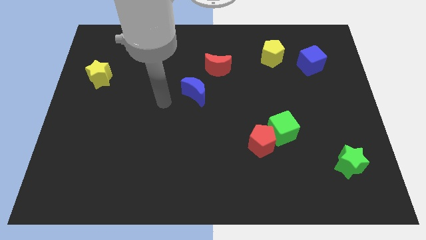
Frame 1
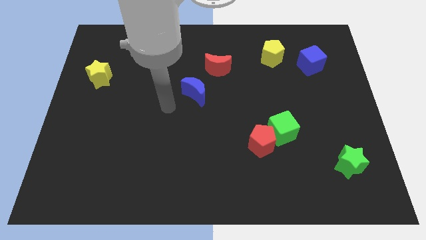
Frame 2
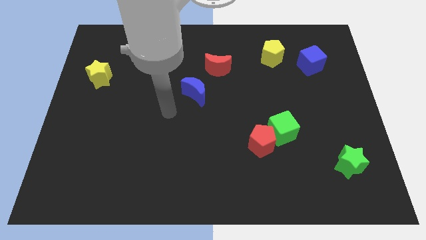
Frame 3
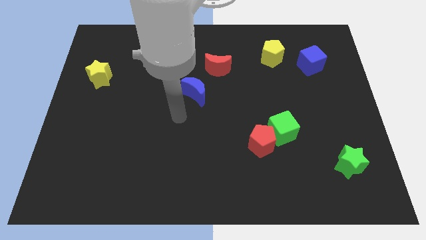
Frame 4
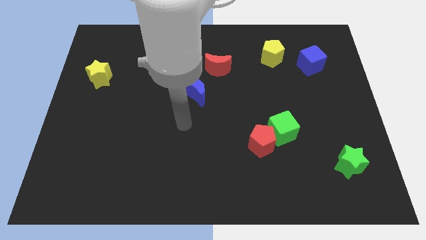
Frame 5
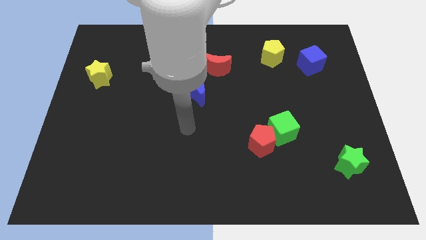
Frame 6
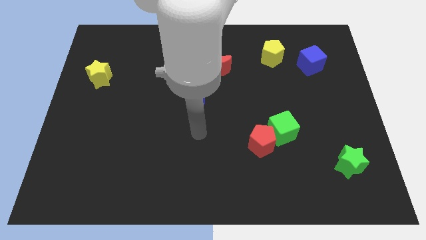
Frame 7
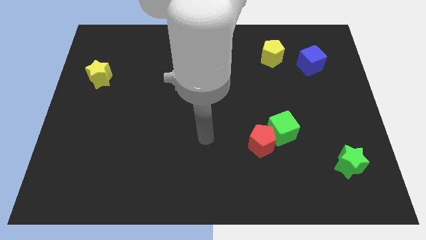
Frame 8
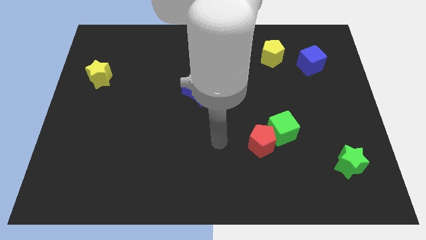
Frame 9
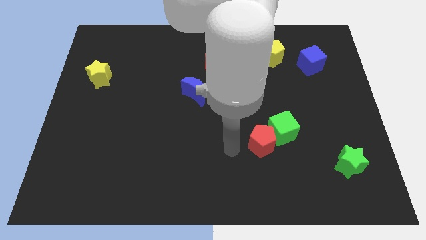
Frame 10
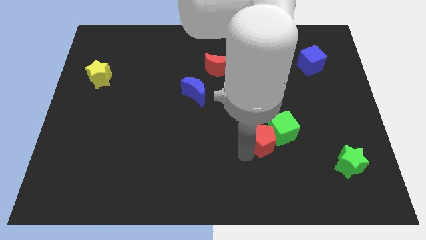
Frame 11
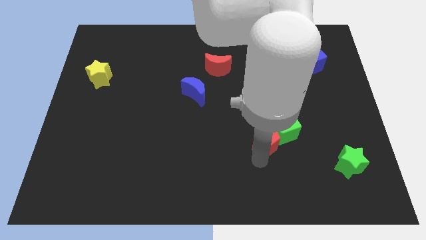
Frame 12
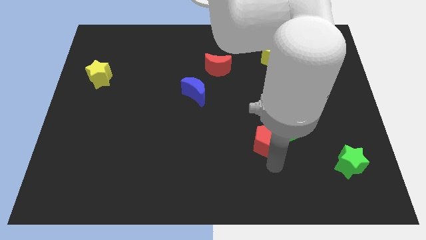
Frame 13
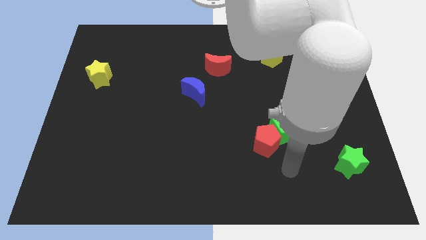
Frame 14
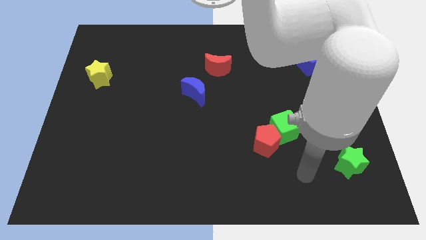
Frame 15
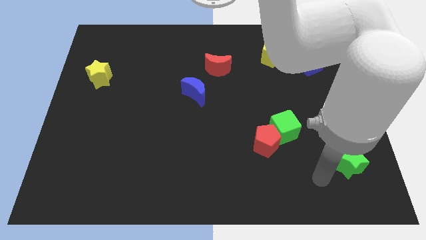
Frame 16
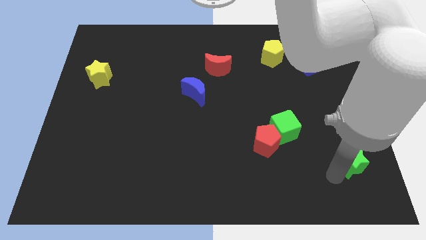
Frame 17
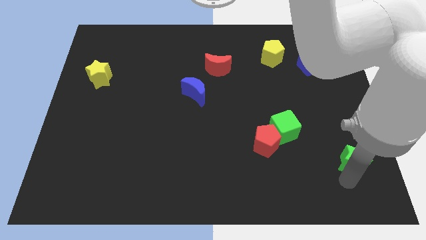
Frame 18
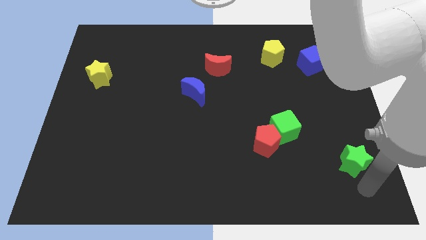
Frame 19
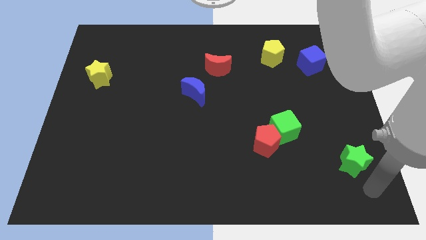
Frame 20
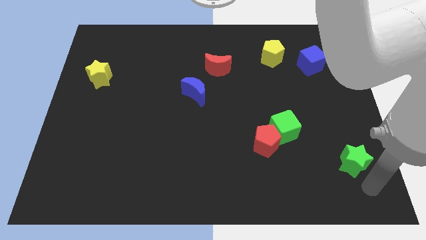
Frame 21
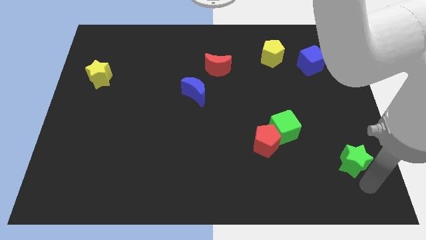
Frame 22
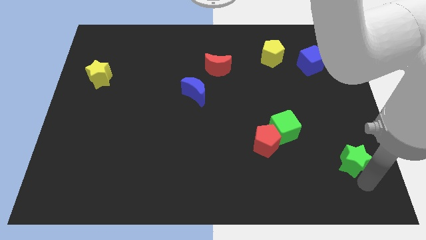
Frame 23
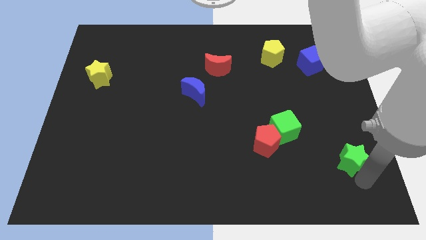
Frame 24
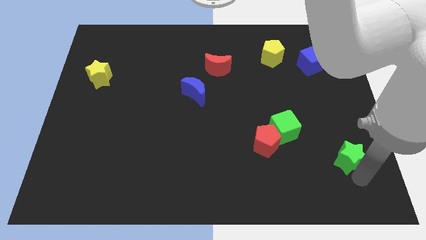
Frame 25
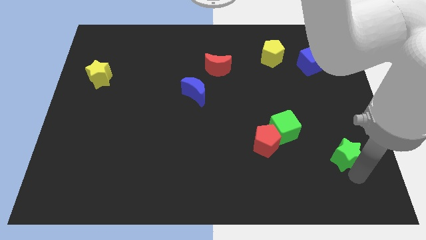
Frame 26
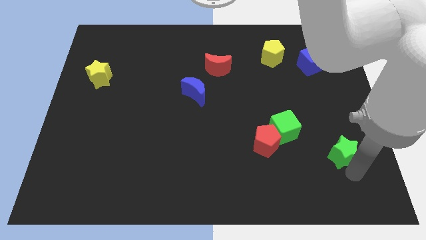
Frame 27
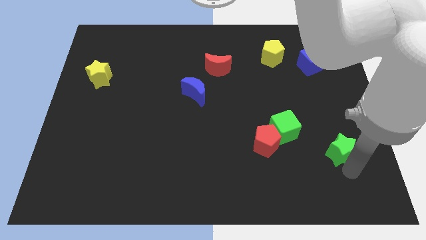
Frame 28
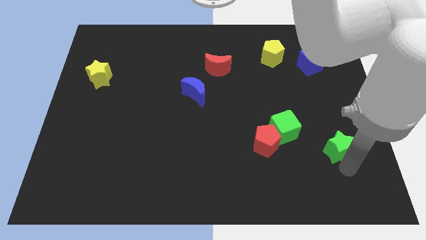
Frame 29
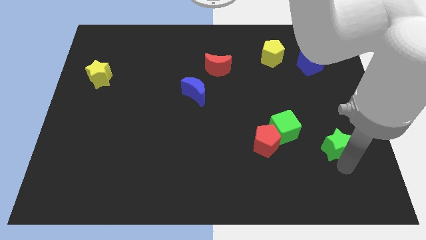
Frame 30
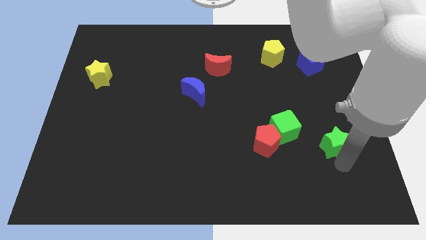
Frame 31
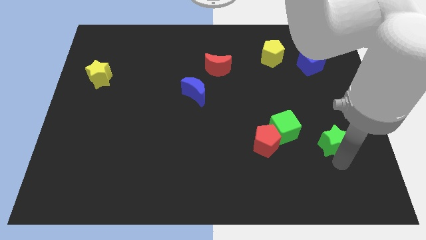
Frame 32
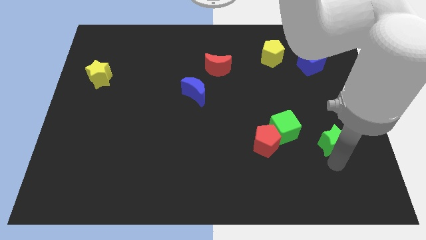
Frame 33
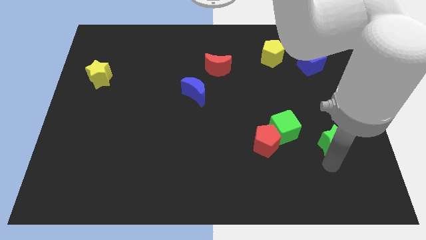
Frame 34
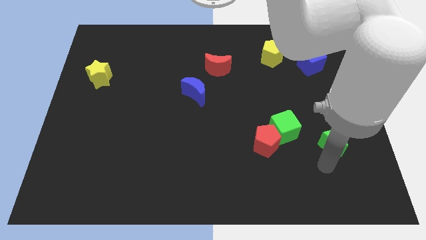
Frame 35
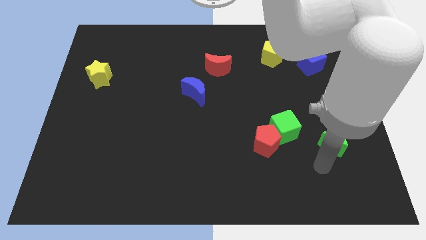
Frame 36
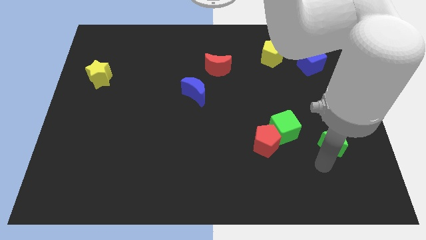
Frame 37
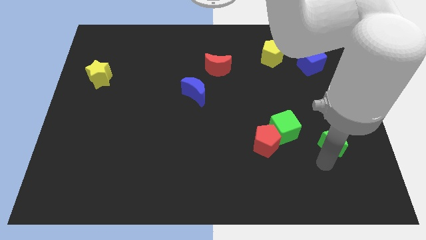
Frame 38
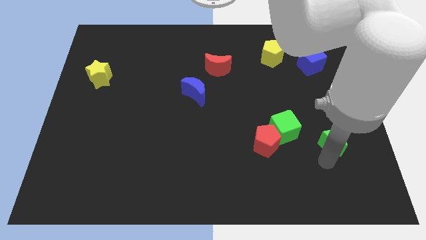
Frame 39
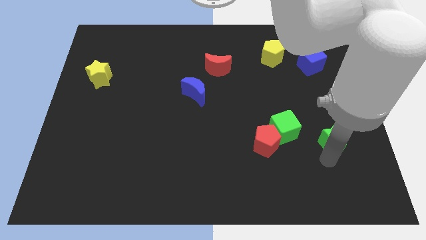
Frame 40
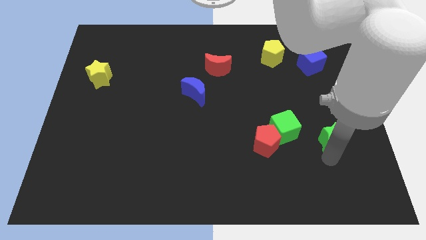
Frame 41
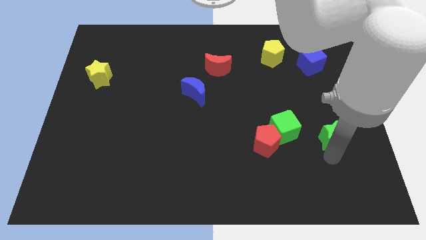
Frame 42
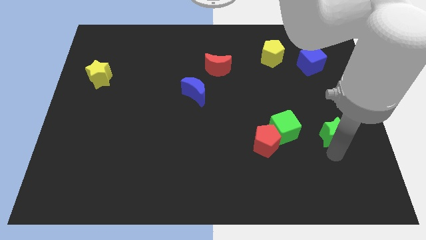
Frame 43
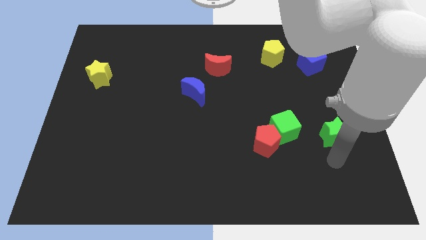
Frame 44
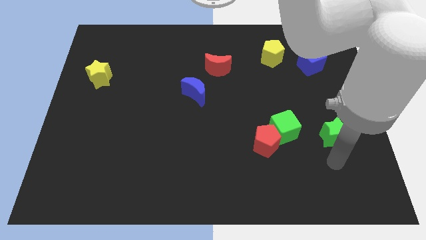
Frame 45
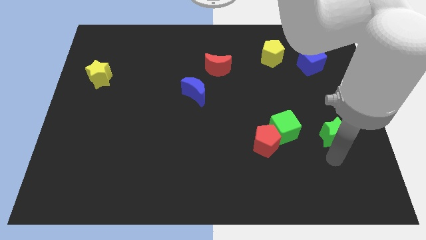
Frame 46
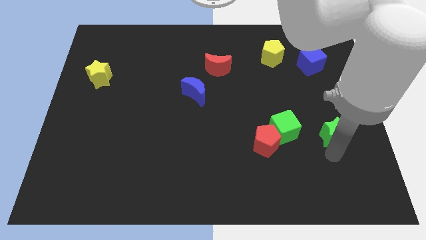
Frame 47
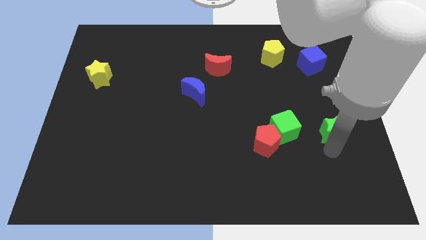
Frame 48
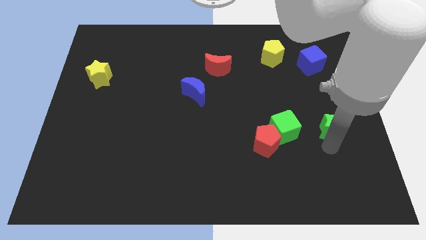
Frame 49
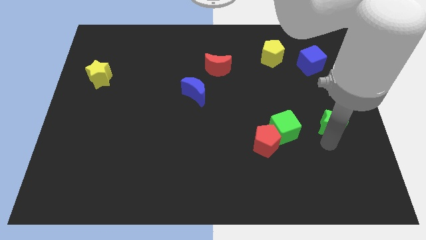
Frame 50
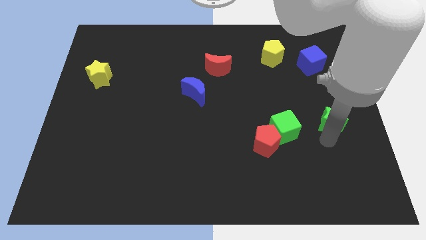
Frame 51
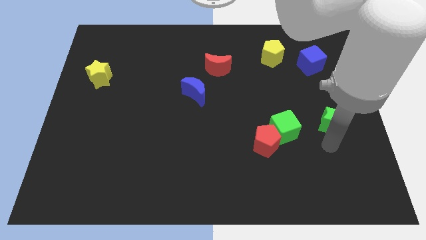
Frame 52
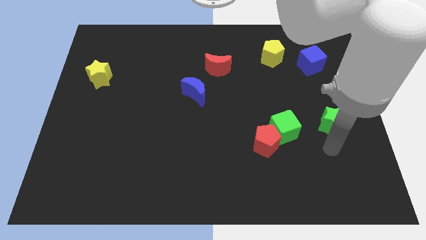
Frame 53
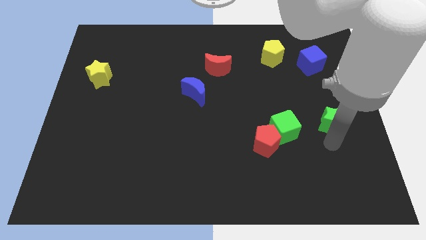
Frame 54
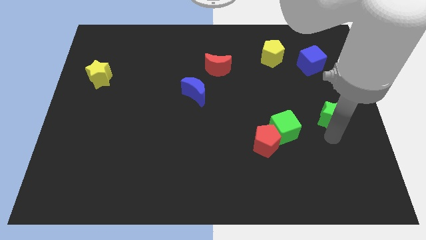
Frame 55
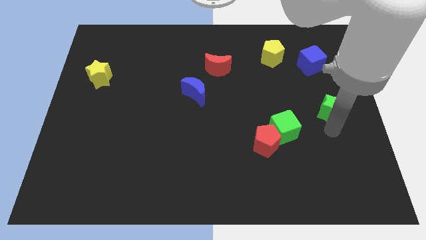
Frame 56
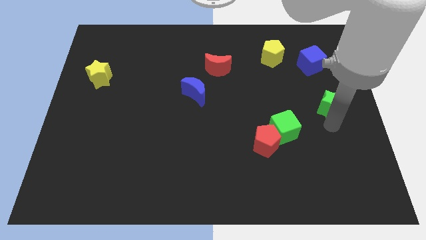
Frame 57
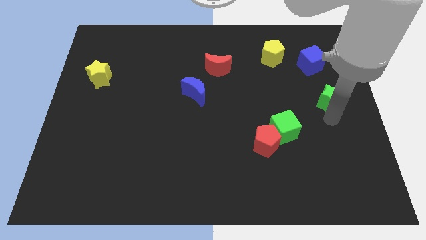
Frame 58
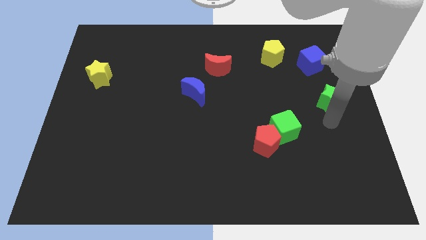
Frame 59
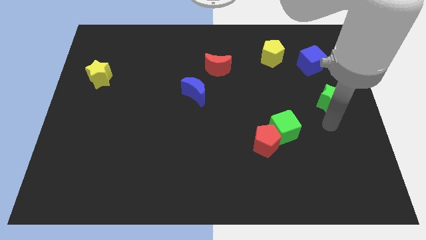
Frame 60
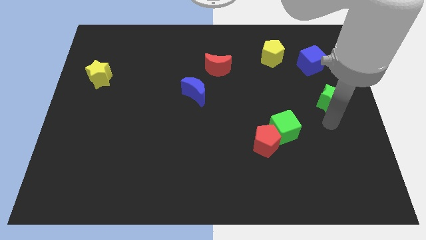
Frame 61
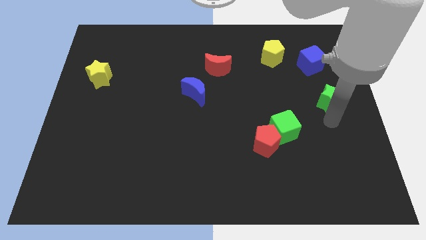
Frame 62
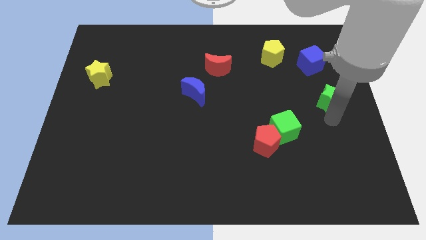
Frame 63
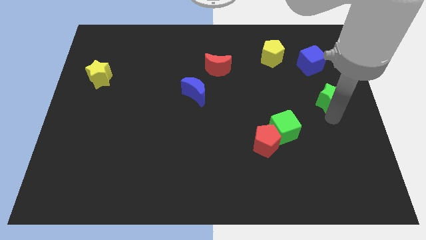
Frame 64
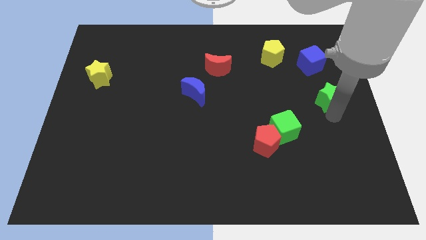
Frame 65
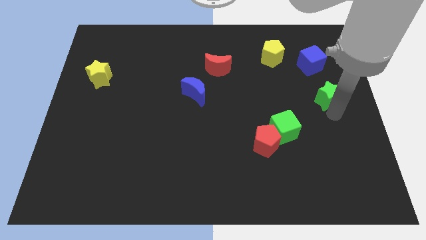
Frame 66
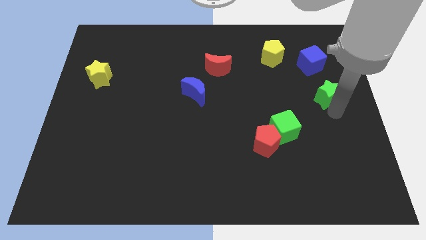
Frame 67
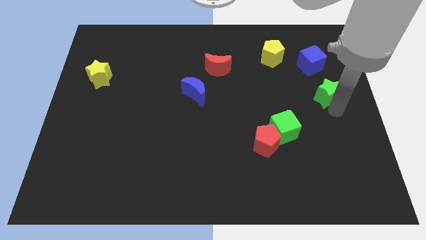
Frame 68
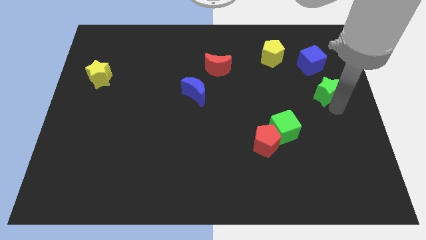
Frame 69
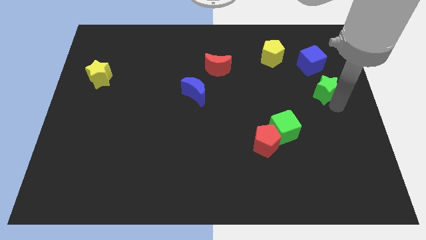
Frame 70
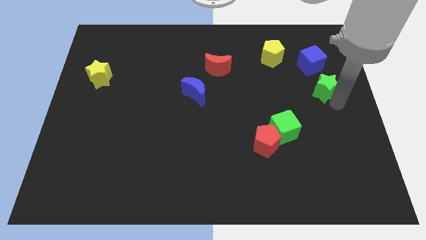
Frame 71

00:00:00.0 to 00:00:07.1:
move the green star up

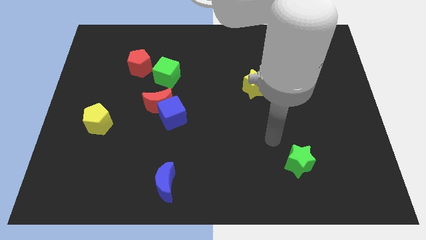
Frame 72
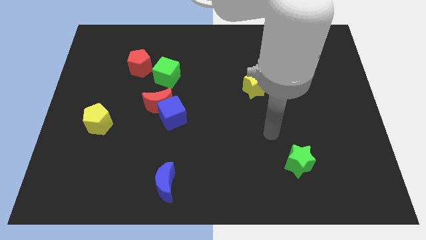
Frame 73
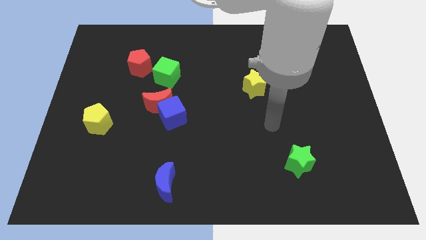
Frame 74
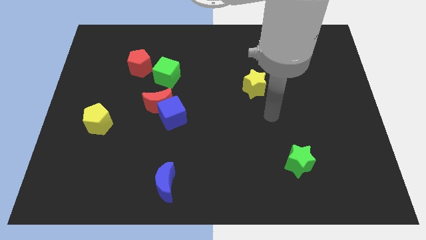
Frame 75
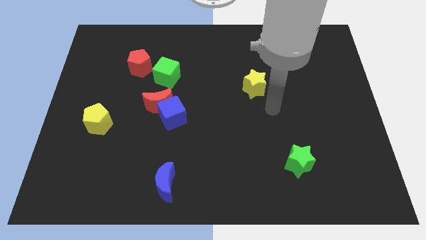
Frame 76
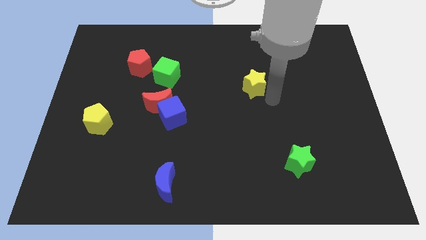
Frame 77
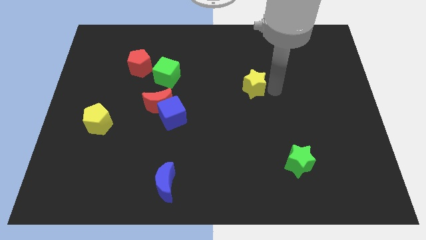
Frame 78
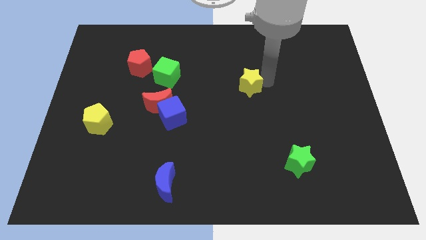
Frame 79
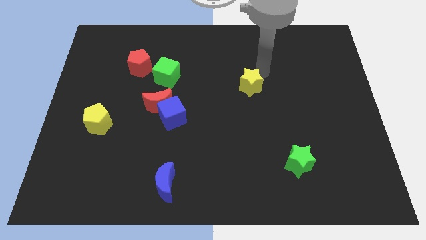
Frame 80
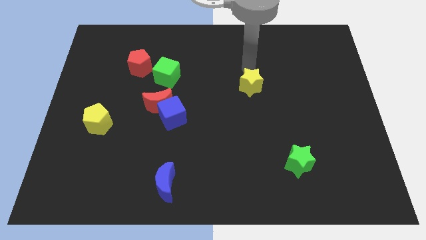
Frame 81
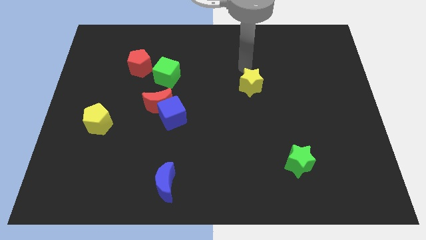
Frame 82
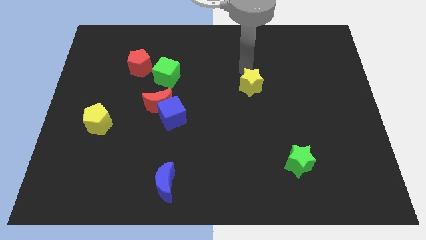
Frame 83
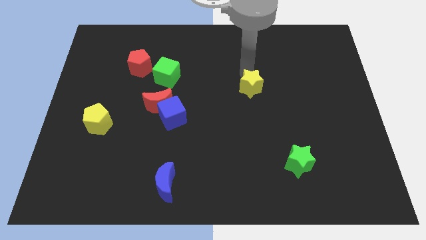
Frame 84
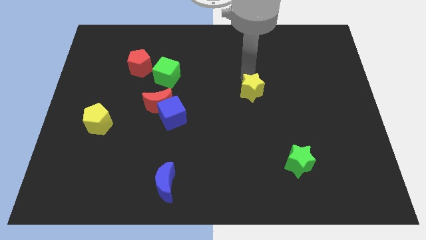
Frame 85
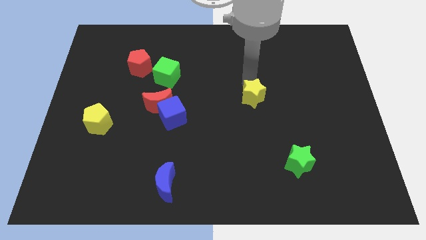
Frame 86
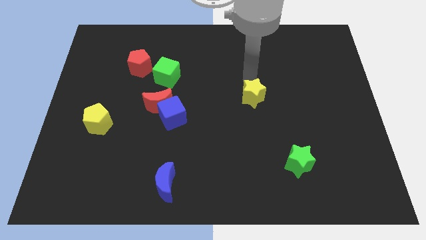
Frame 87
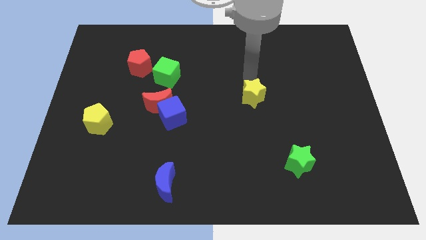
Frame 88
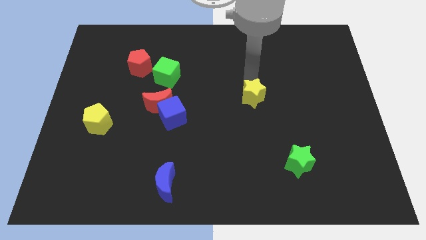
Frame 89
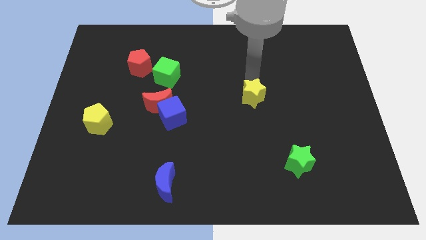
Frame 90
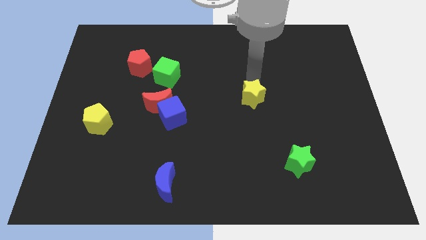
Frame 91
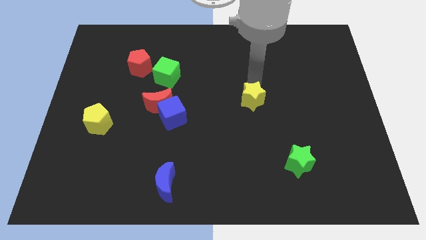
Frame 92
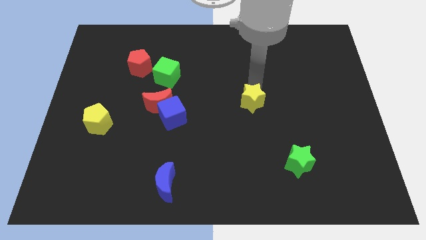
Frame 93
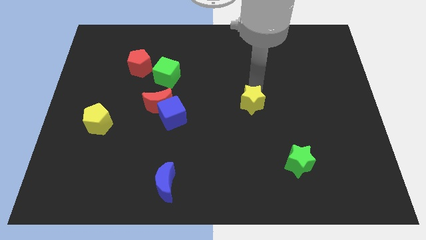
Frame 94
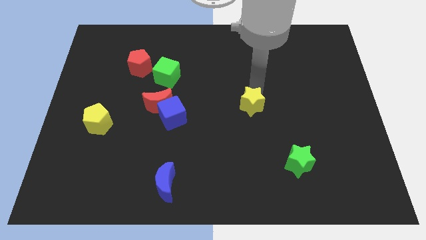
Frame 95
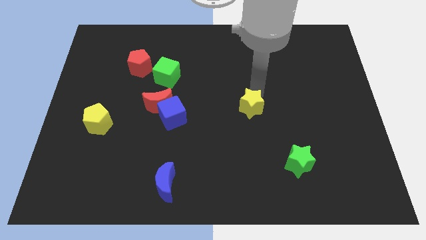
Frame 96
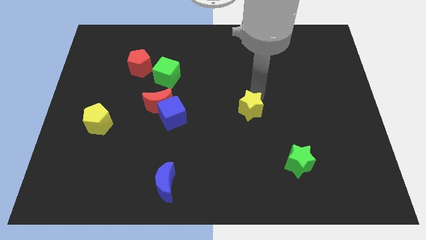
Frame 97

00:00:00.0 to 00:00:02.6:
push the yellow star down a little
